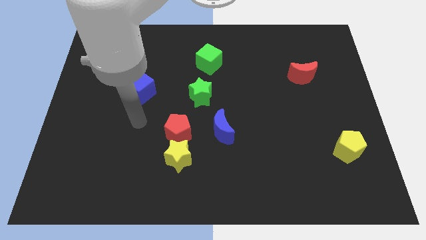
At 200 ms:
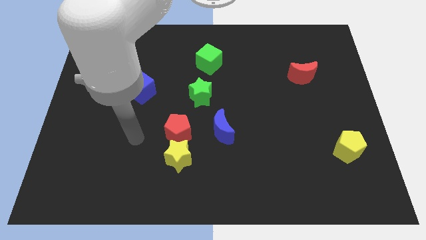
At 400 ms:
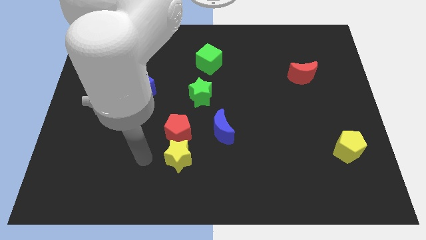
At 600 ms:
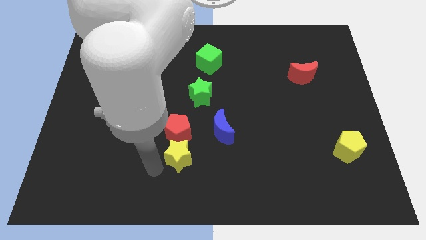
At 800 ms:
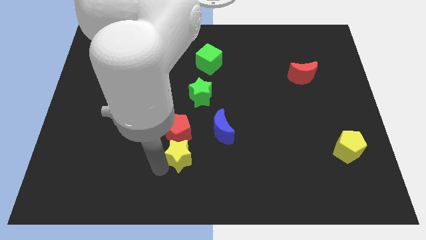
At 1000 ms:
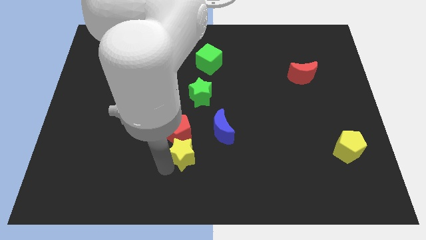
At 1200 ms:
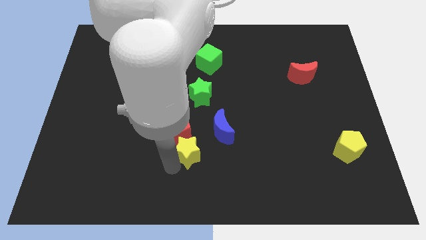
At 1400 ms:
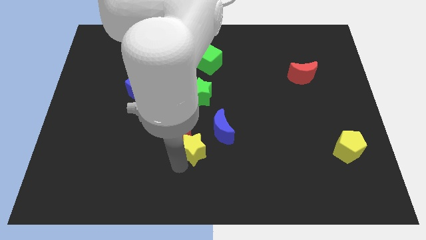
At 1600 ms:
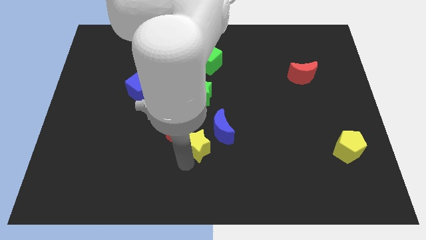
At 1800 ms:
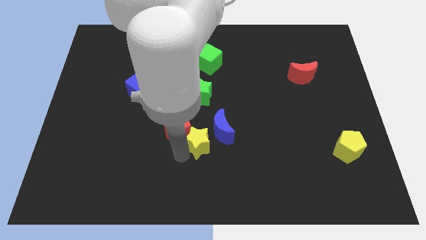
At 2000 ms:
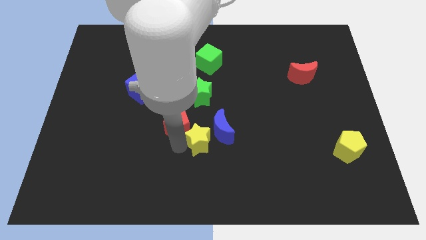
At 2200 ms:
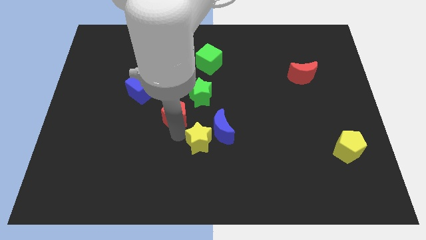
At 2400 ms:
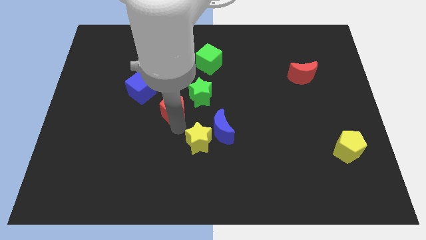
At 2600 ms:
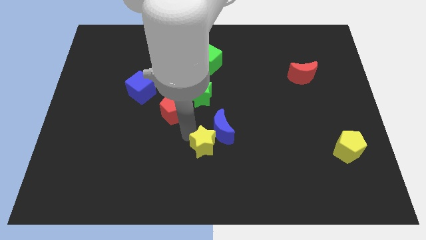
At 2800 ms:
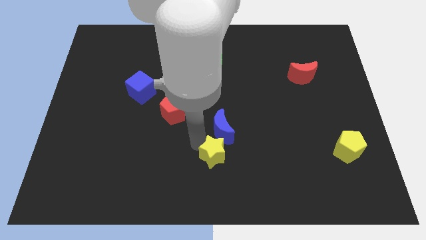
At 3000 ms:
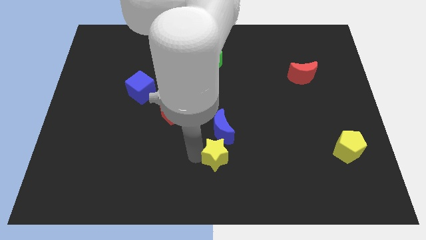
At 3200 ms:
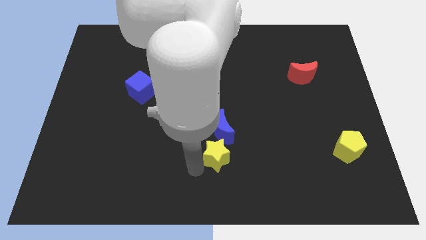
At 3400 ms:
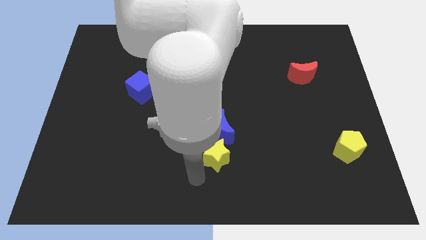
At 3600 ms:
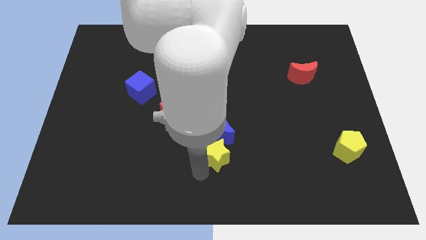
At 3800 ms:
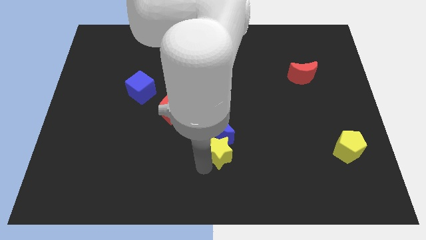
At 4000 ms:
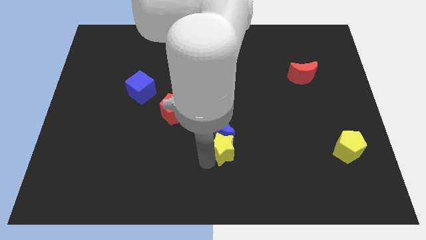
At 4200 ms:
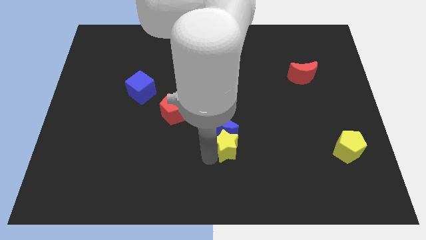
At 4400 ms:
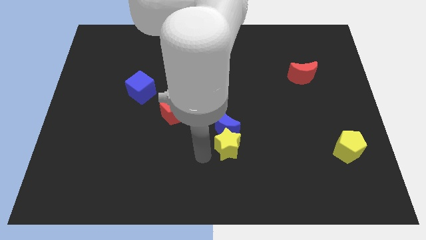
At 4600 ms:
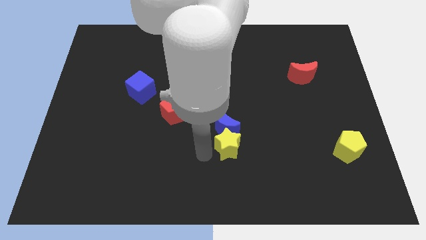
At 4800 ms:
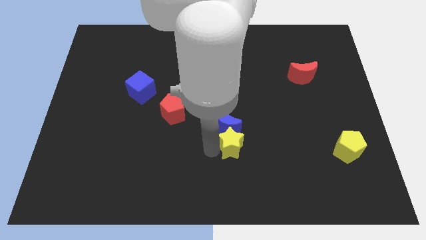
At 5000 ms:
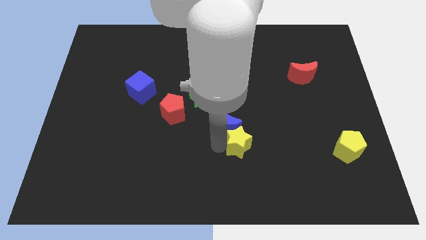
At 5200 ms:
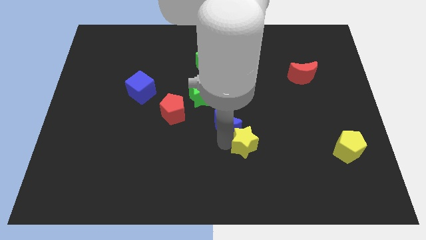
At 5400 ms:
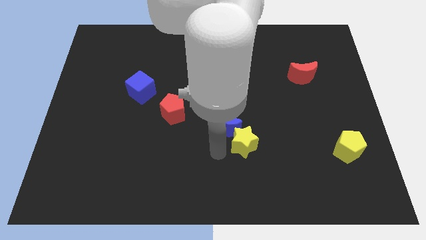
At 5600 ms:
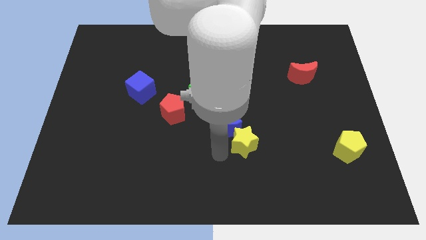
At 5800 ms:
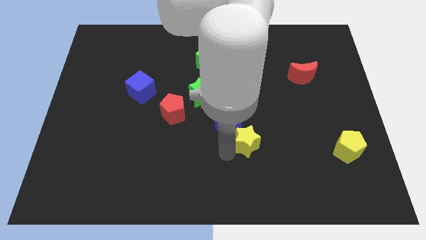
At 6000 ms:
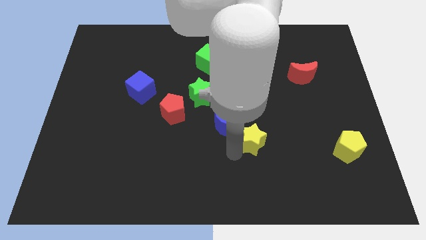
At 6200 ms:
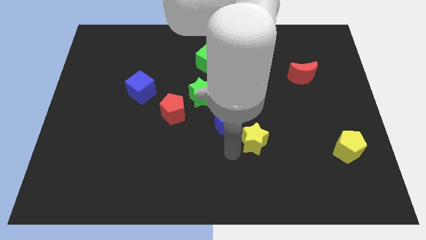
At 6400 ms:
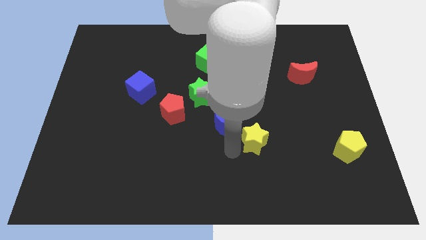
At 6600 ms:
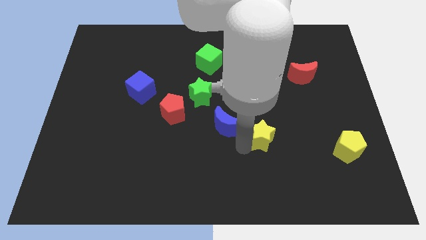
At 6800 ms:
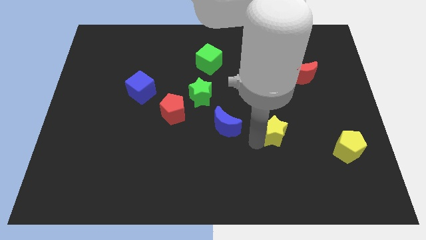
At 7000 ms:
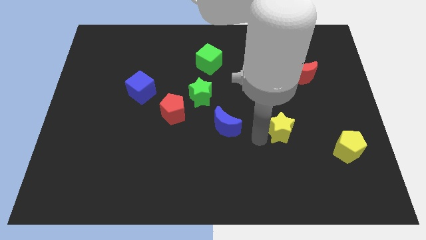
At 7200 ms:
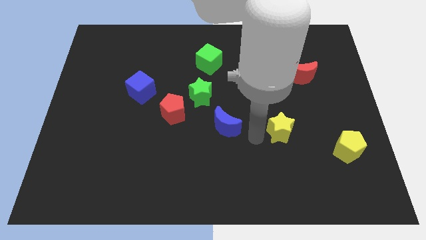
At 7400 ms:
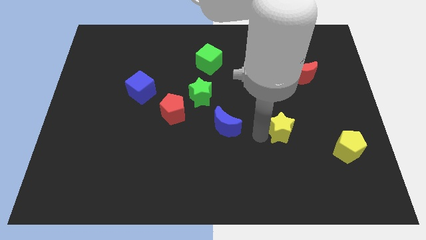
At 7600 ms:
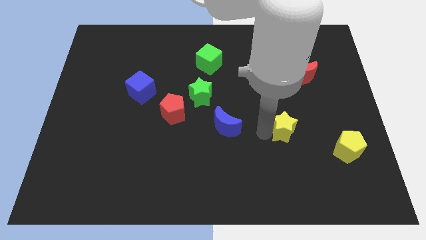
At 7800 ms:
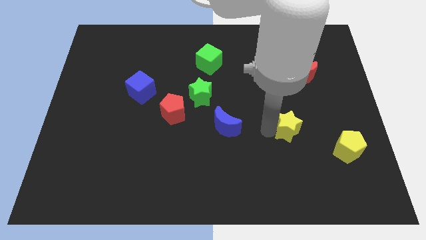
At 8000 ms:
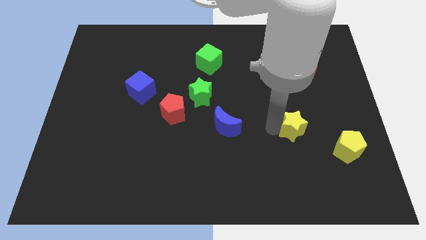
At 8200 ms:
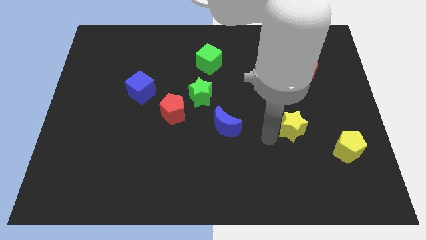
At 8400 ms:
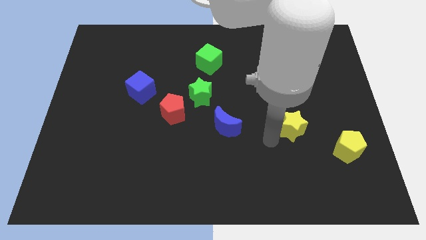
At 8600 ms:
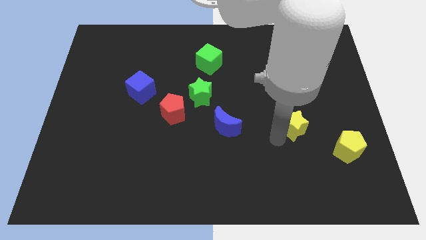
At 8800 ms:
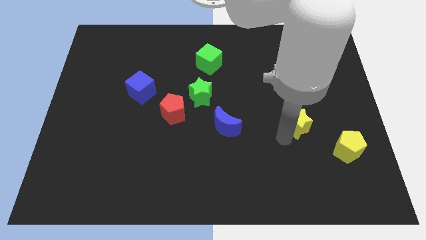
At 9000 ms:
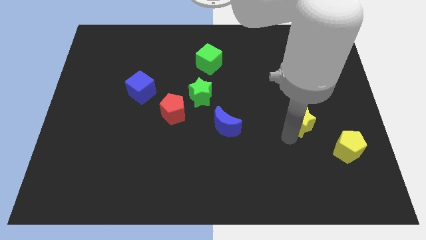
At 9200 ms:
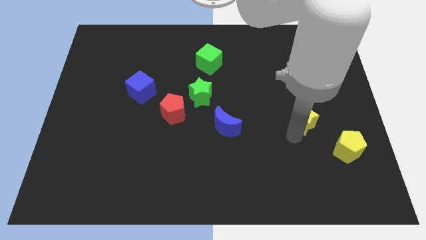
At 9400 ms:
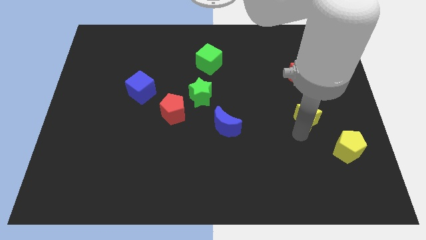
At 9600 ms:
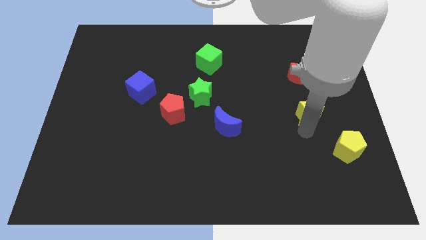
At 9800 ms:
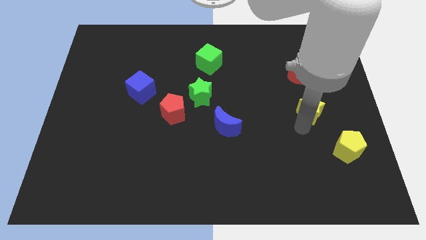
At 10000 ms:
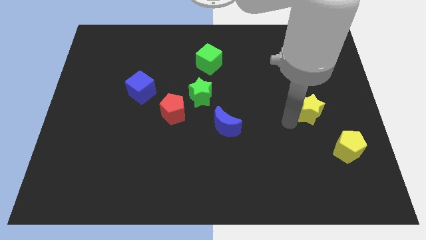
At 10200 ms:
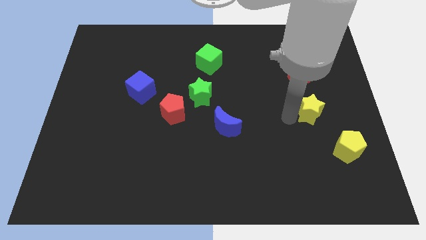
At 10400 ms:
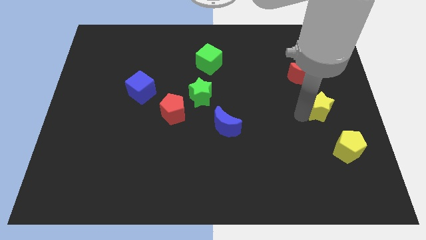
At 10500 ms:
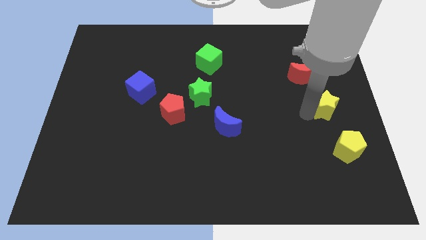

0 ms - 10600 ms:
put the yellow star to the center right

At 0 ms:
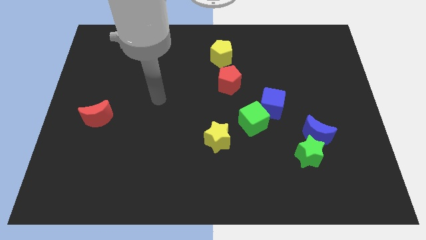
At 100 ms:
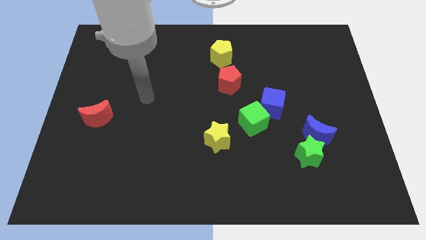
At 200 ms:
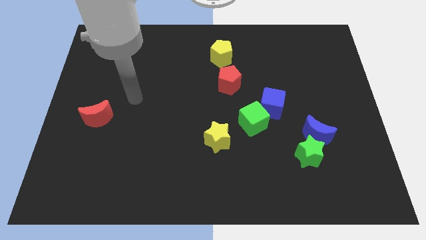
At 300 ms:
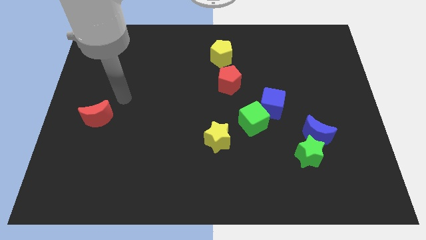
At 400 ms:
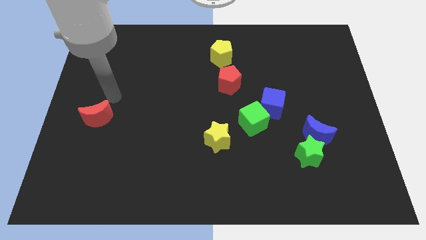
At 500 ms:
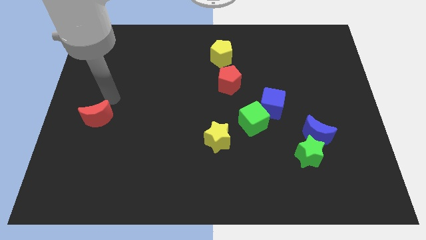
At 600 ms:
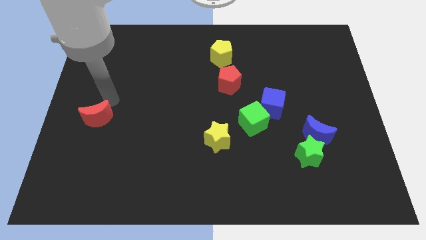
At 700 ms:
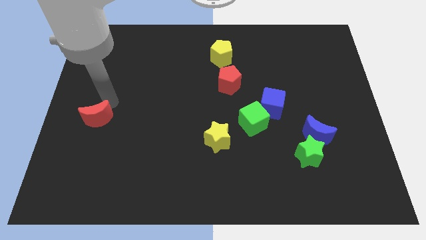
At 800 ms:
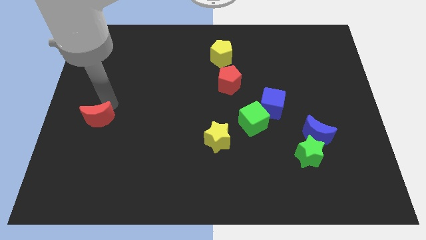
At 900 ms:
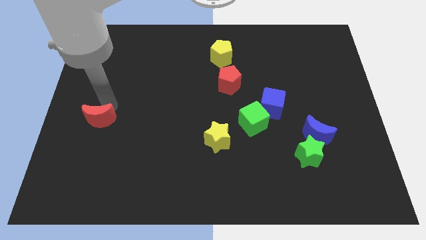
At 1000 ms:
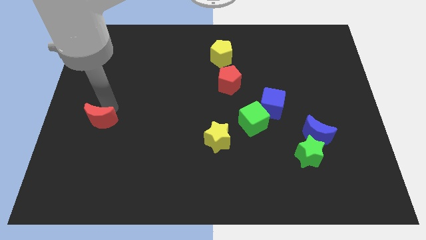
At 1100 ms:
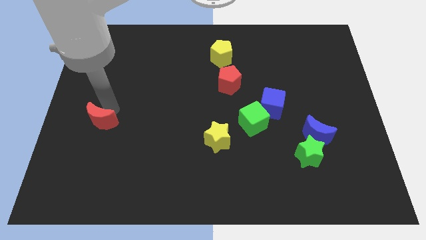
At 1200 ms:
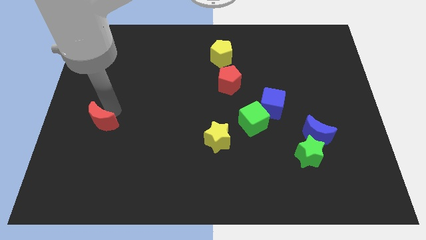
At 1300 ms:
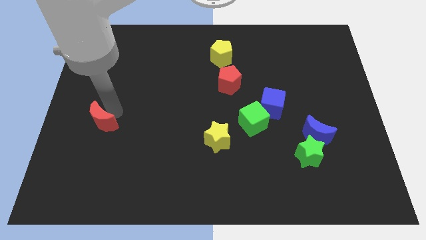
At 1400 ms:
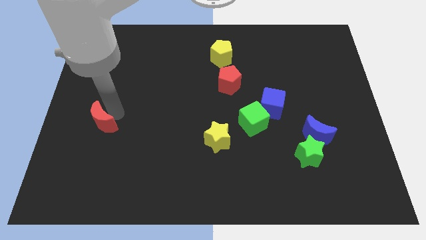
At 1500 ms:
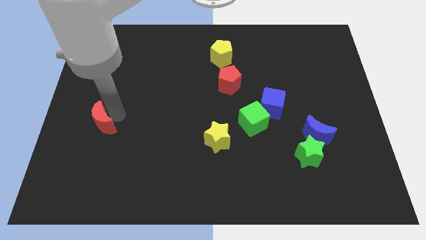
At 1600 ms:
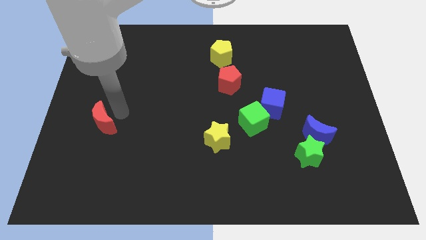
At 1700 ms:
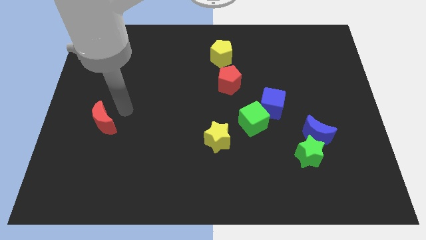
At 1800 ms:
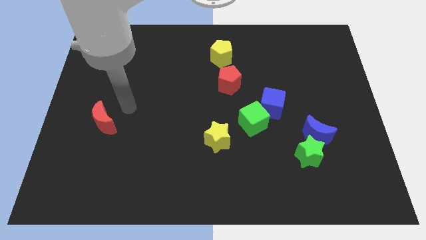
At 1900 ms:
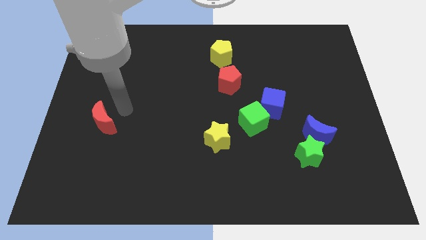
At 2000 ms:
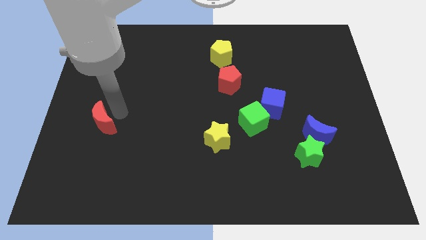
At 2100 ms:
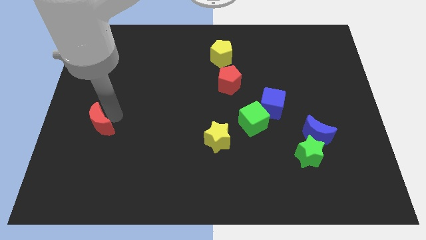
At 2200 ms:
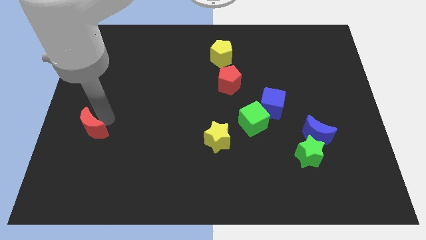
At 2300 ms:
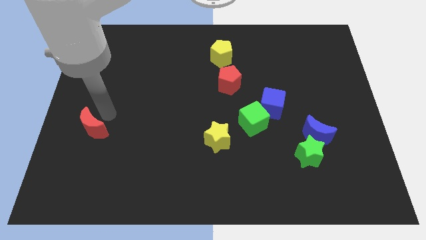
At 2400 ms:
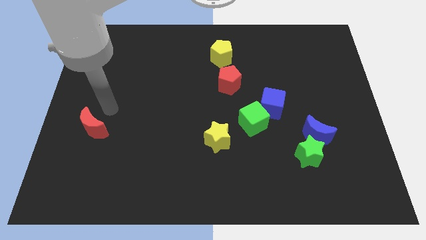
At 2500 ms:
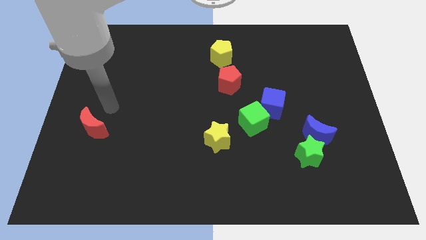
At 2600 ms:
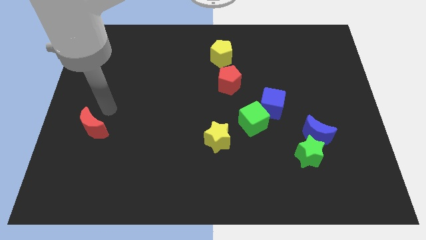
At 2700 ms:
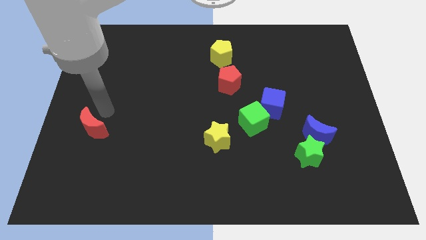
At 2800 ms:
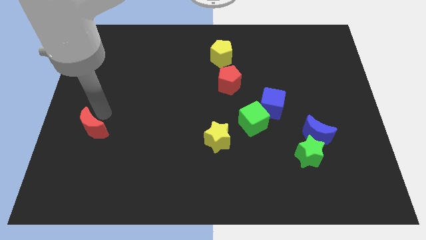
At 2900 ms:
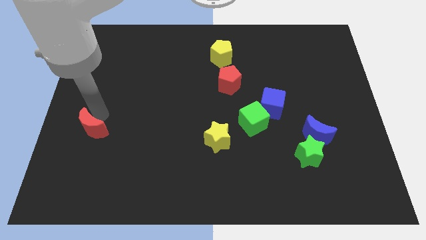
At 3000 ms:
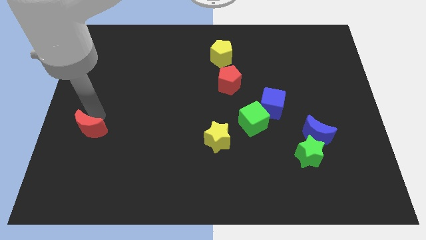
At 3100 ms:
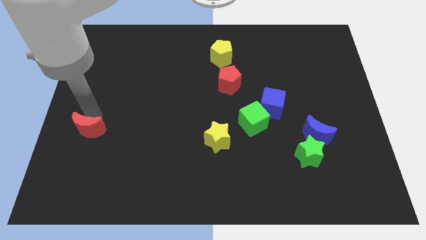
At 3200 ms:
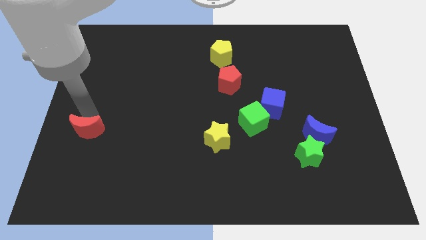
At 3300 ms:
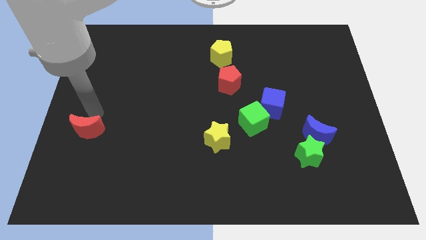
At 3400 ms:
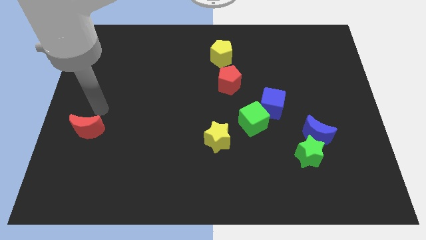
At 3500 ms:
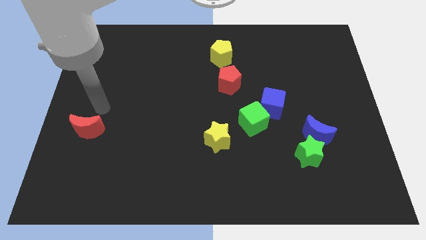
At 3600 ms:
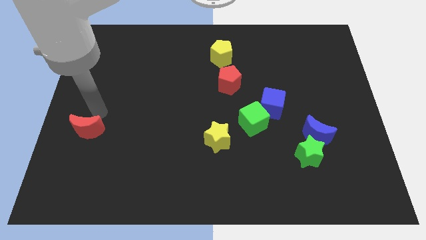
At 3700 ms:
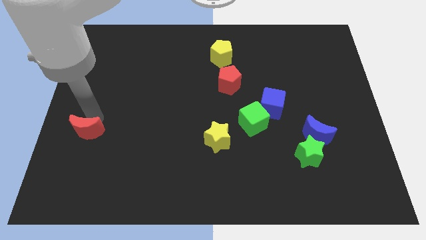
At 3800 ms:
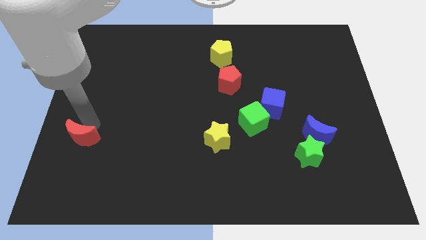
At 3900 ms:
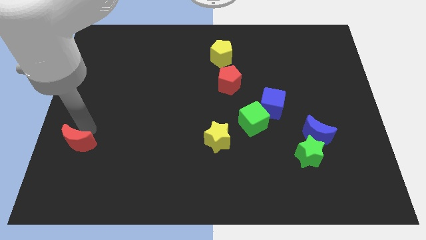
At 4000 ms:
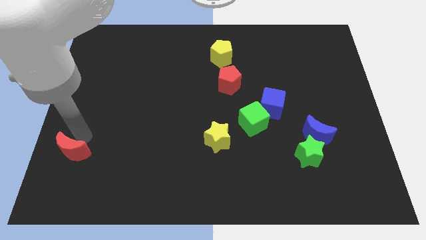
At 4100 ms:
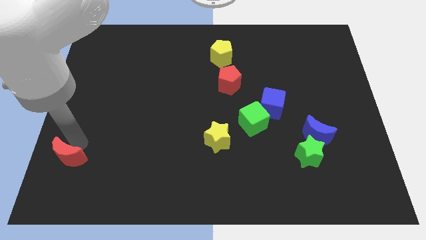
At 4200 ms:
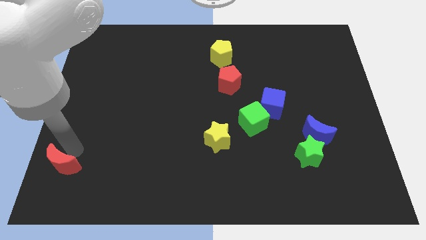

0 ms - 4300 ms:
push the red moon to the bottom left
